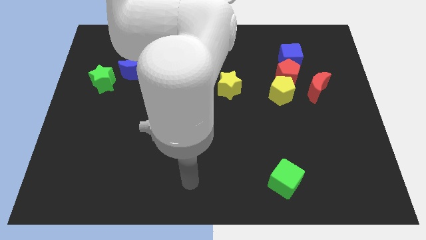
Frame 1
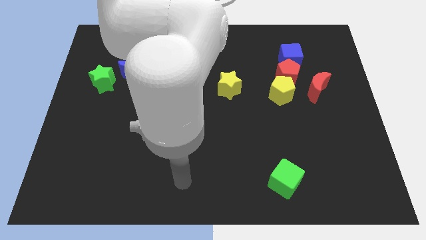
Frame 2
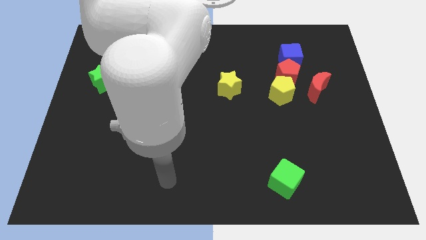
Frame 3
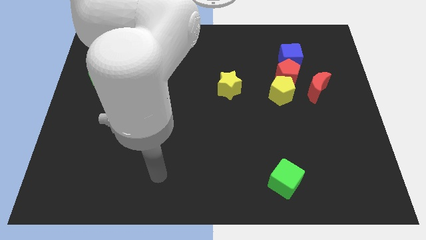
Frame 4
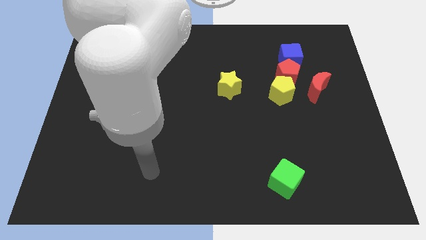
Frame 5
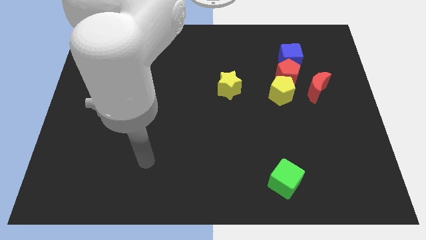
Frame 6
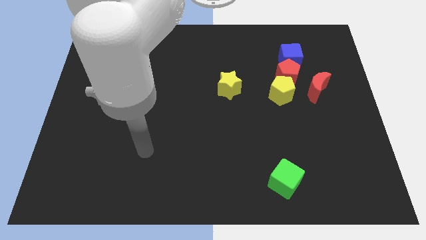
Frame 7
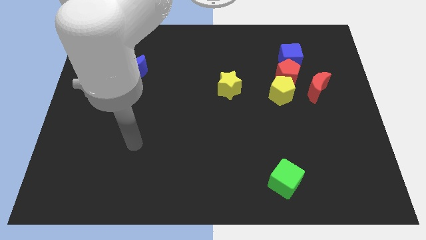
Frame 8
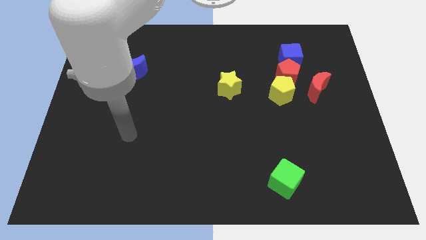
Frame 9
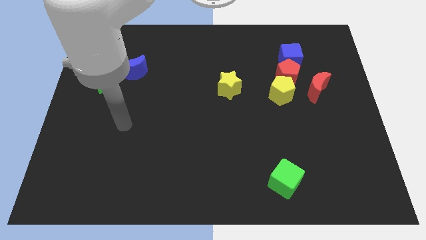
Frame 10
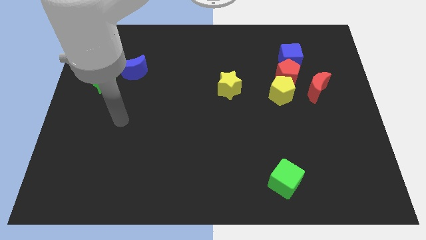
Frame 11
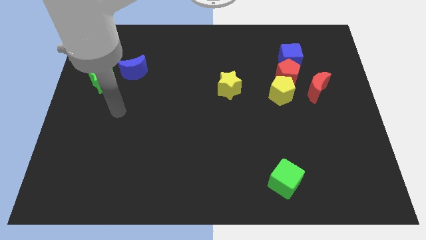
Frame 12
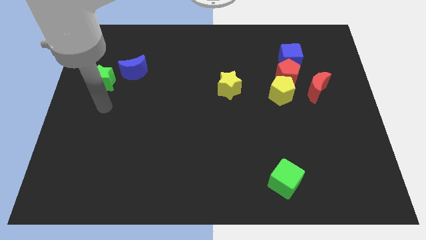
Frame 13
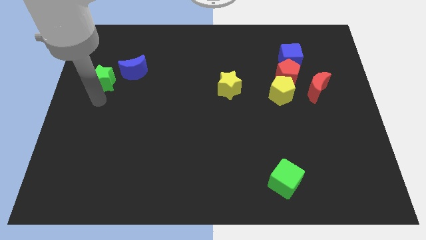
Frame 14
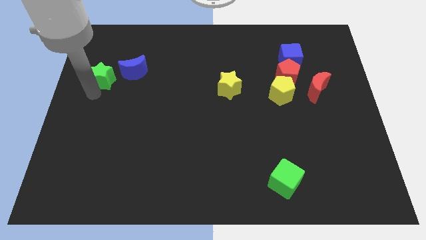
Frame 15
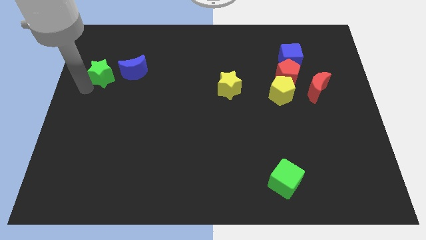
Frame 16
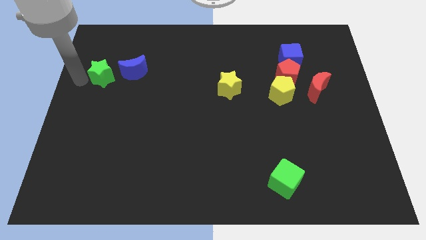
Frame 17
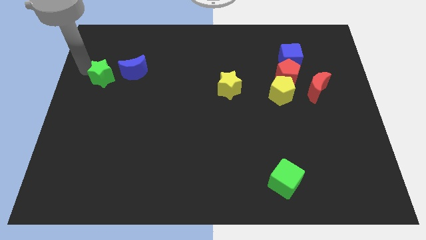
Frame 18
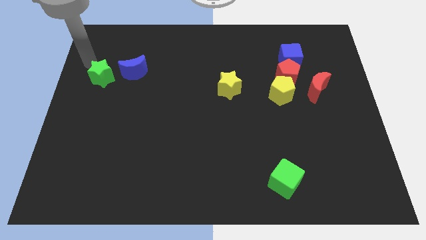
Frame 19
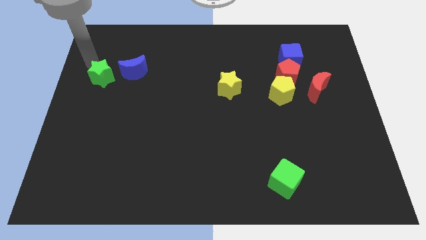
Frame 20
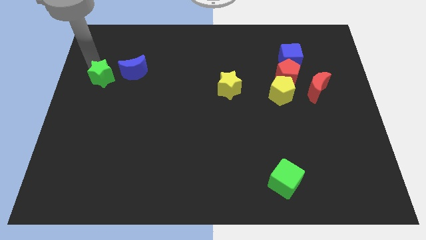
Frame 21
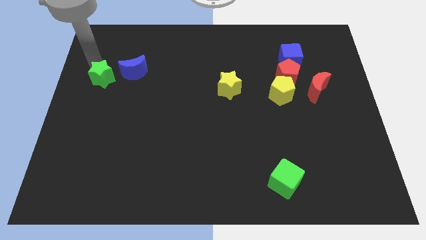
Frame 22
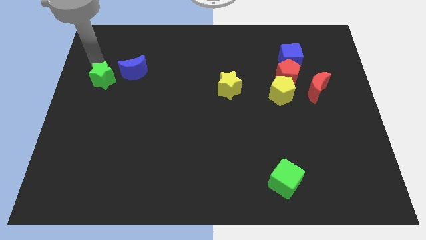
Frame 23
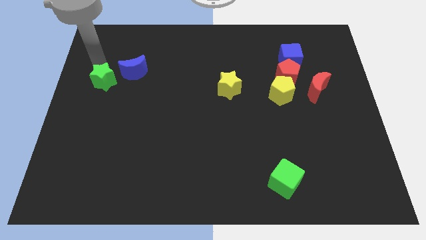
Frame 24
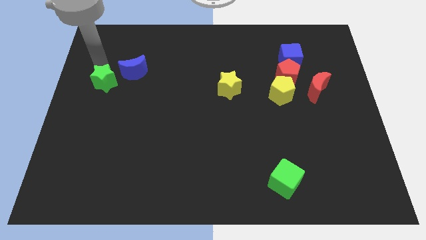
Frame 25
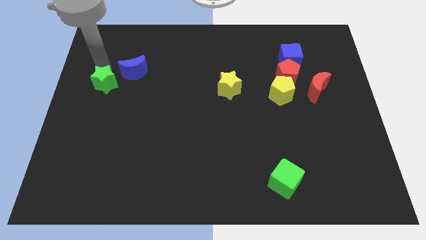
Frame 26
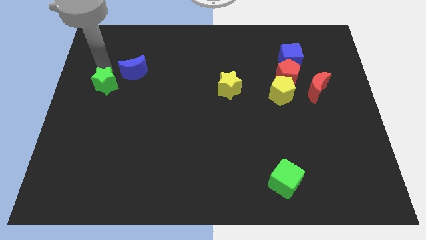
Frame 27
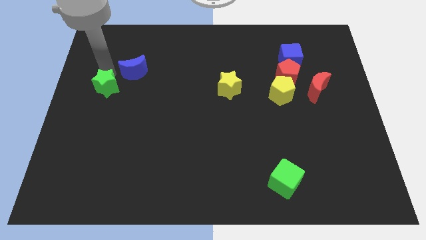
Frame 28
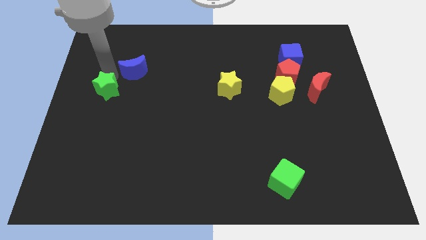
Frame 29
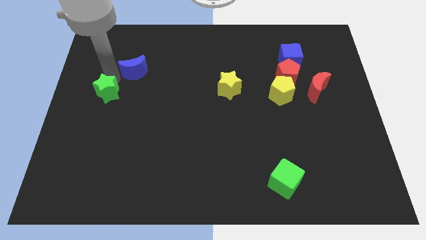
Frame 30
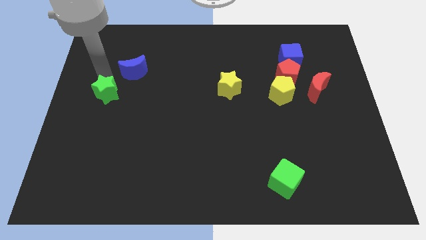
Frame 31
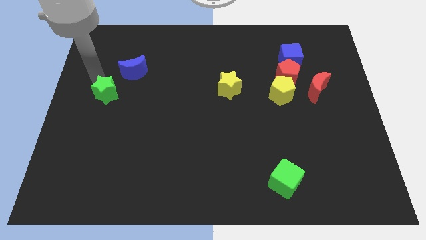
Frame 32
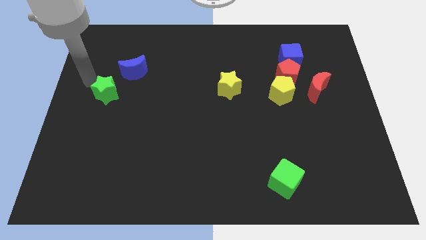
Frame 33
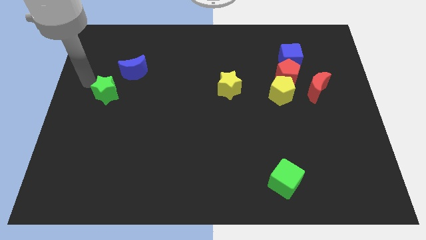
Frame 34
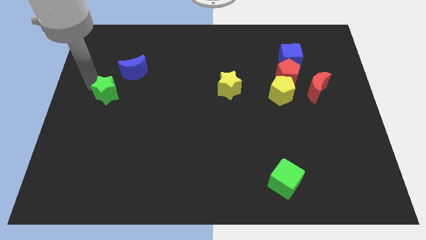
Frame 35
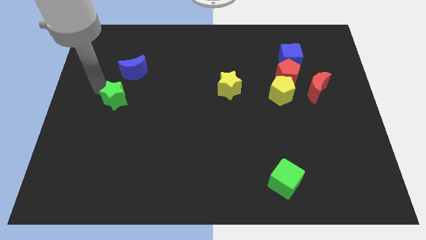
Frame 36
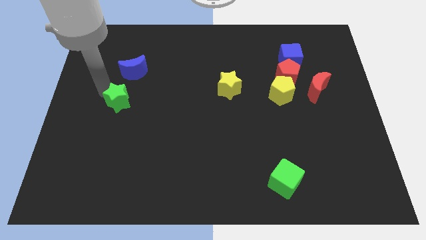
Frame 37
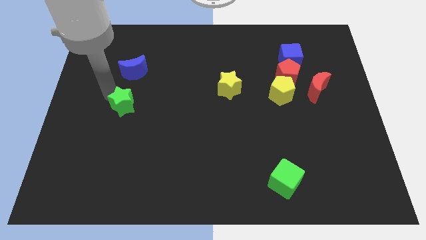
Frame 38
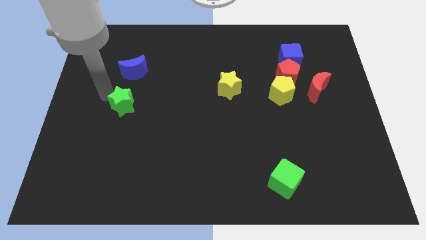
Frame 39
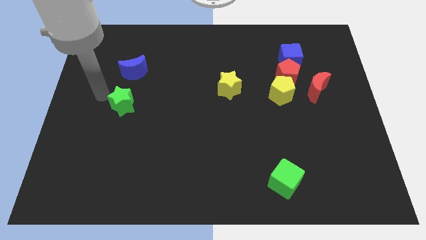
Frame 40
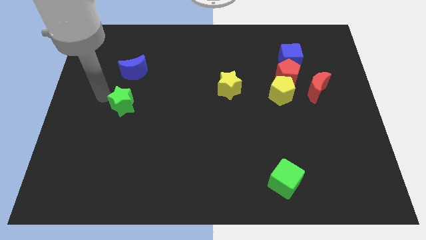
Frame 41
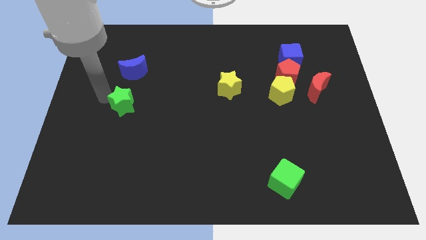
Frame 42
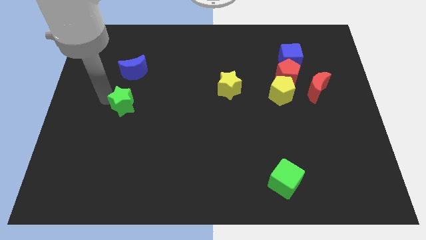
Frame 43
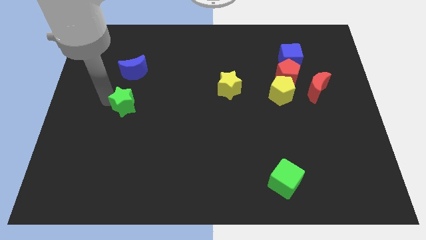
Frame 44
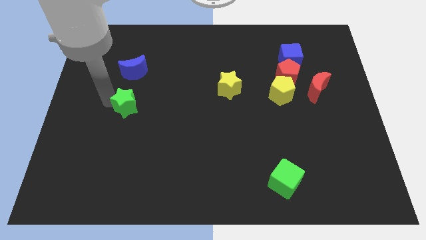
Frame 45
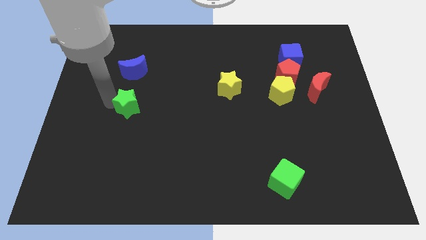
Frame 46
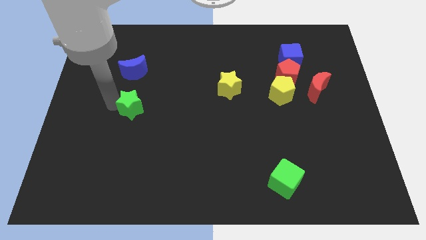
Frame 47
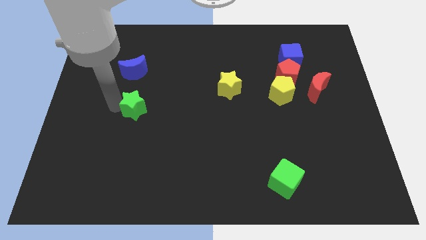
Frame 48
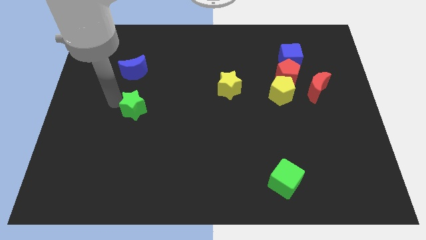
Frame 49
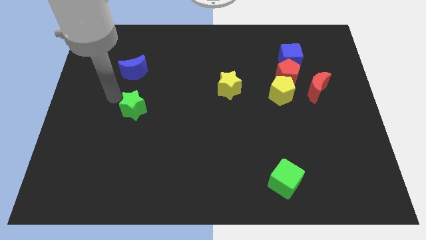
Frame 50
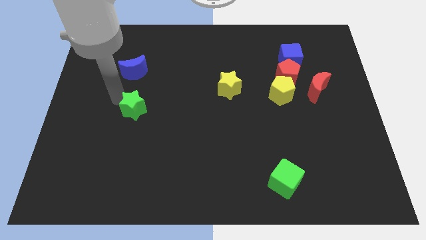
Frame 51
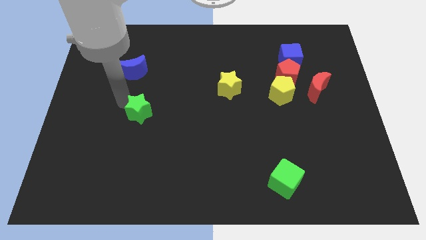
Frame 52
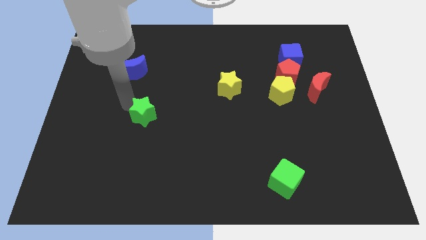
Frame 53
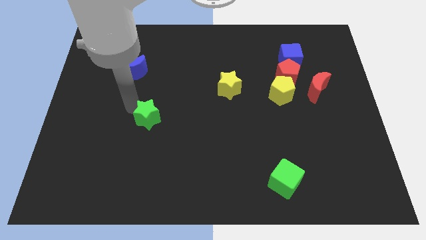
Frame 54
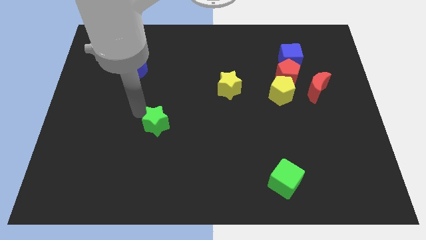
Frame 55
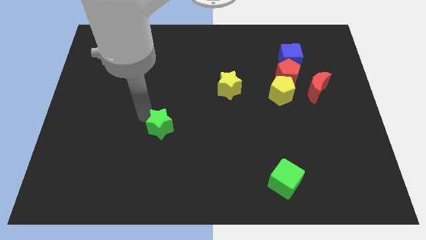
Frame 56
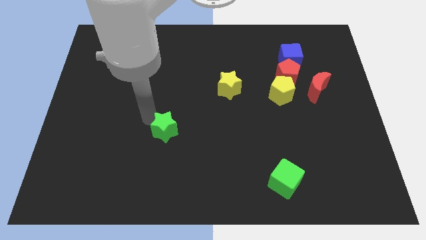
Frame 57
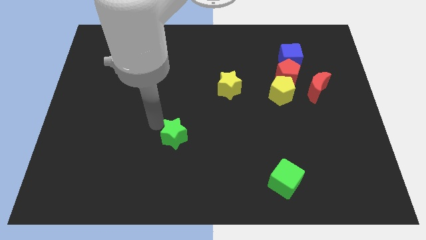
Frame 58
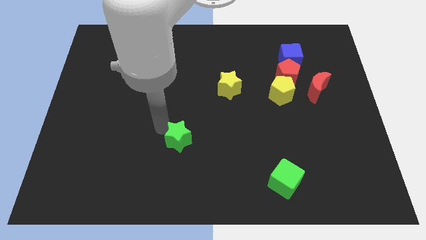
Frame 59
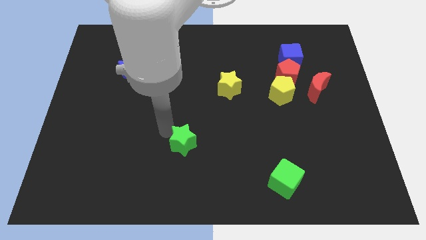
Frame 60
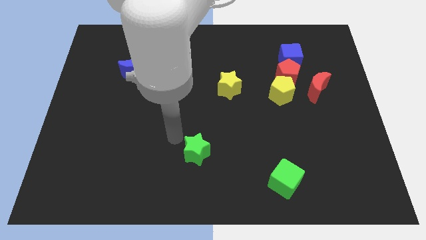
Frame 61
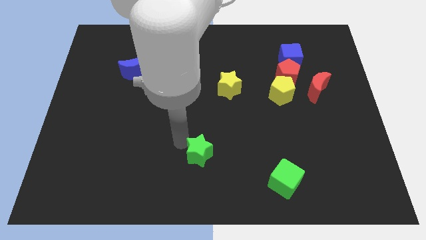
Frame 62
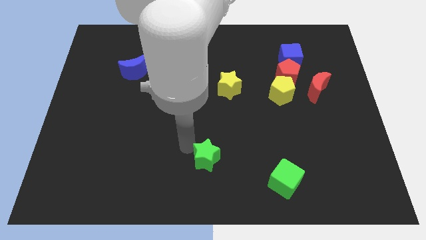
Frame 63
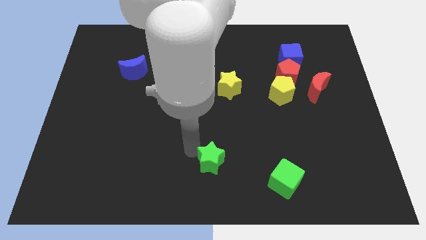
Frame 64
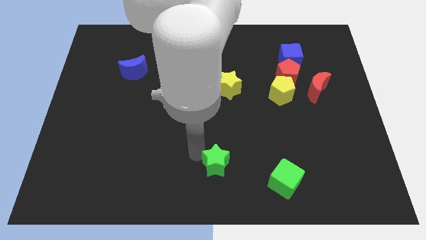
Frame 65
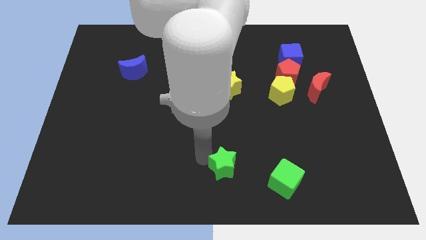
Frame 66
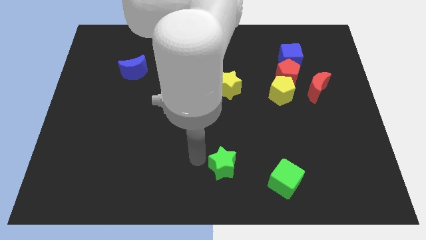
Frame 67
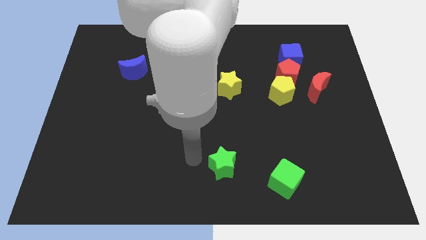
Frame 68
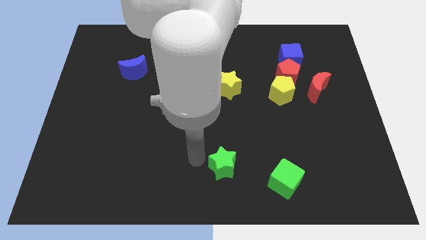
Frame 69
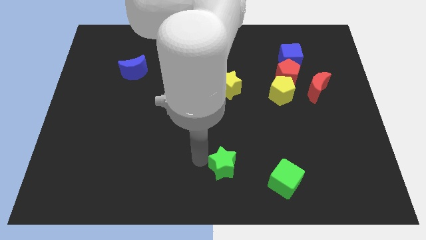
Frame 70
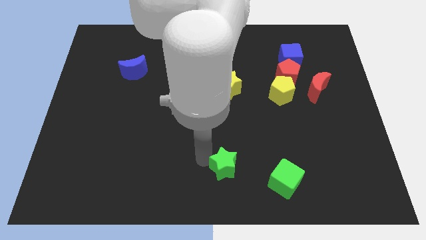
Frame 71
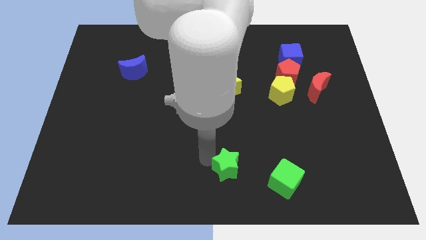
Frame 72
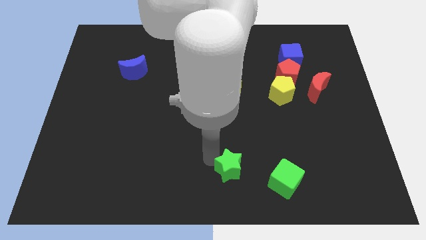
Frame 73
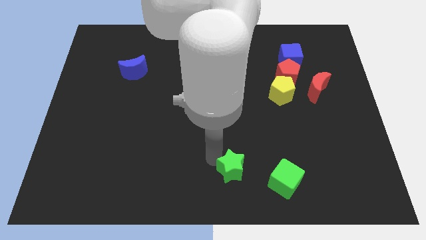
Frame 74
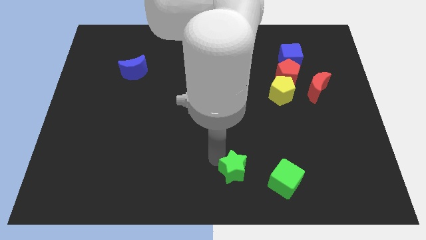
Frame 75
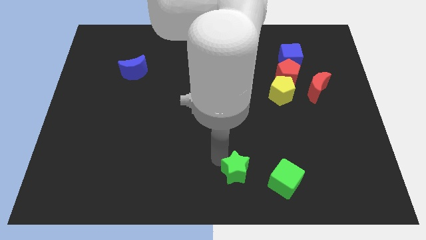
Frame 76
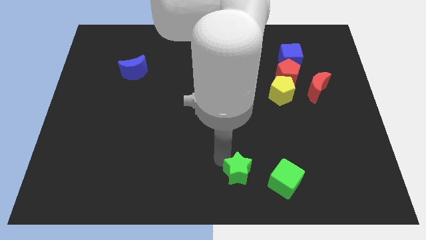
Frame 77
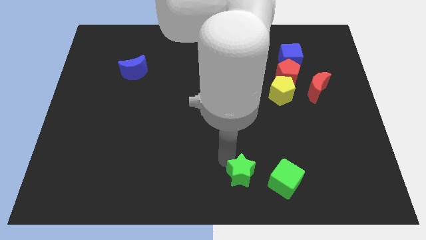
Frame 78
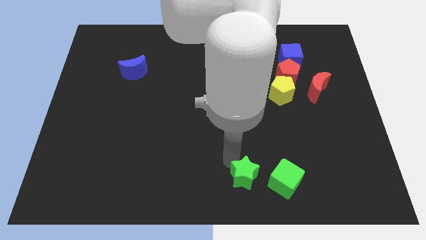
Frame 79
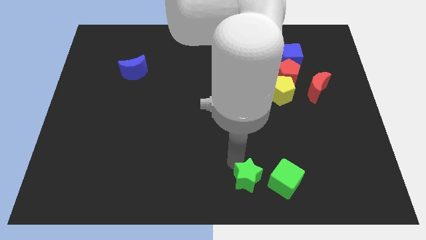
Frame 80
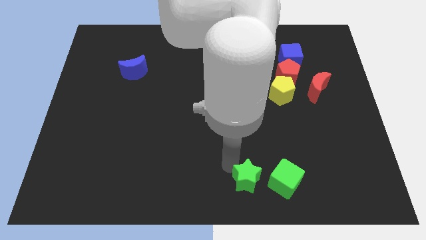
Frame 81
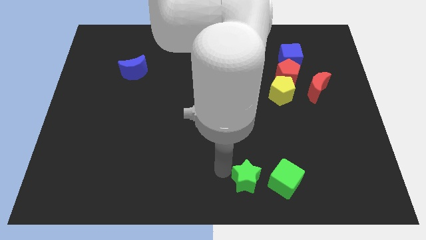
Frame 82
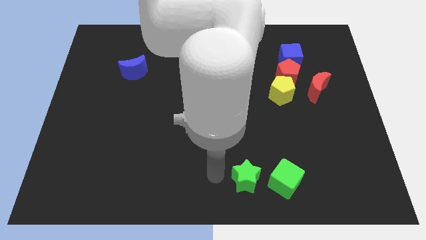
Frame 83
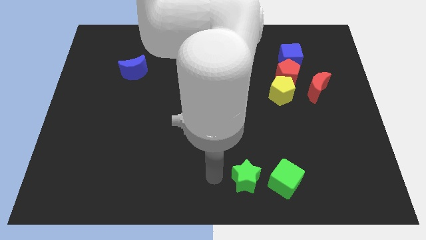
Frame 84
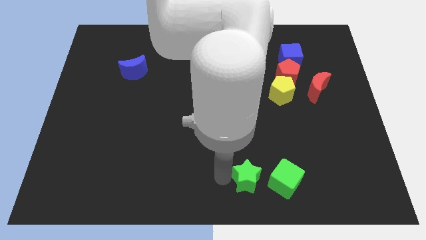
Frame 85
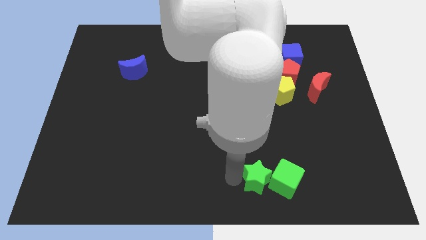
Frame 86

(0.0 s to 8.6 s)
put the green star to the green cube
